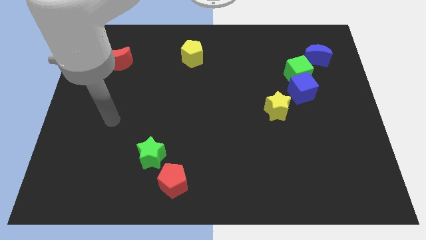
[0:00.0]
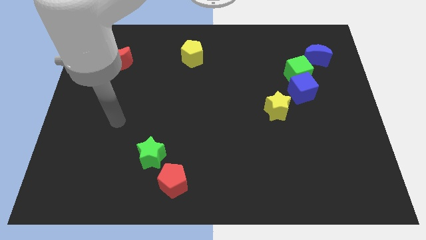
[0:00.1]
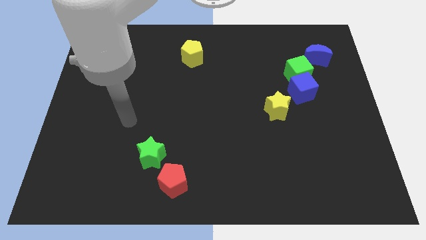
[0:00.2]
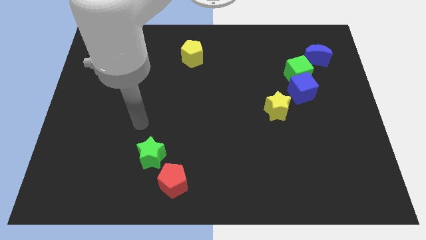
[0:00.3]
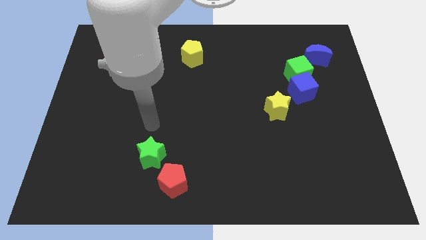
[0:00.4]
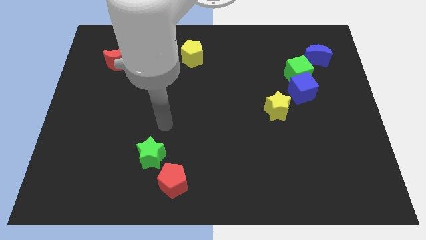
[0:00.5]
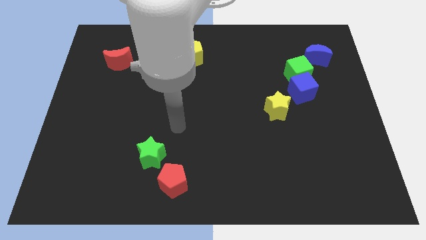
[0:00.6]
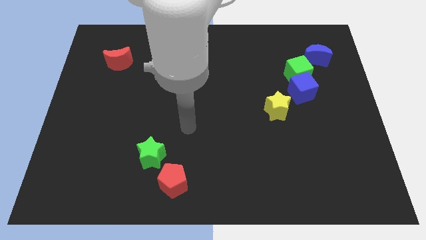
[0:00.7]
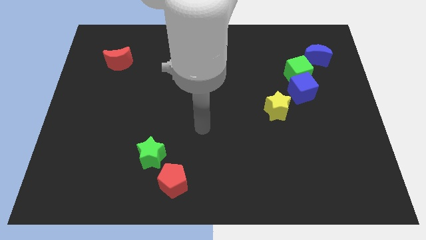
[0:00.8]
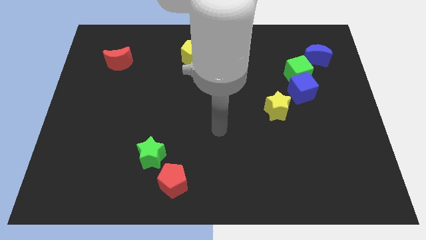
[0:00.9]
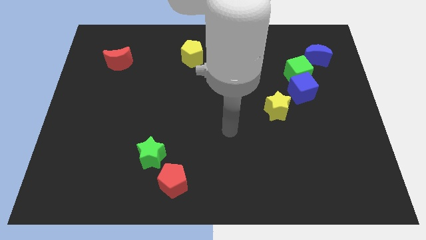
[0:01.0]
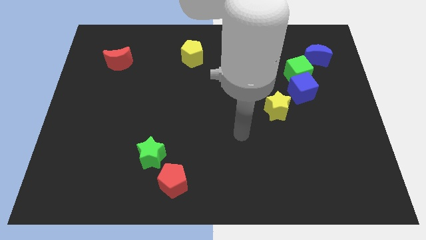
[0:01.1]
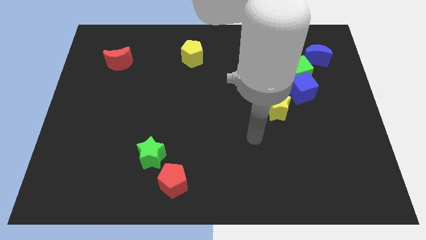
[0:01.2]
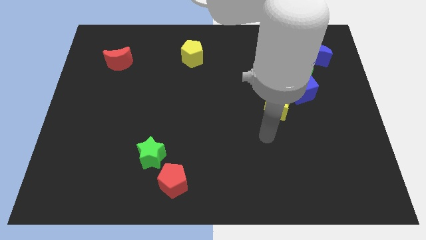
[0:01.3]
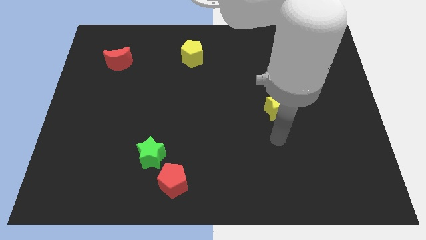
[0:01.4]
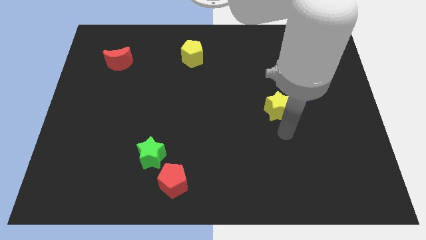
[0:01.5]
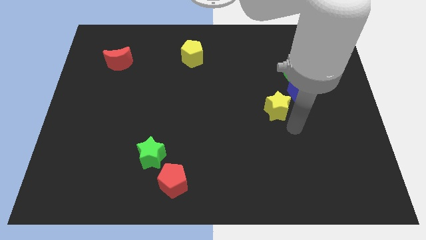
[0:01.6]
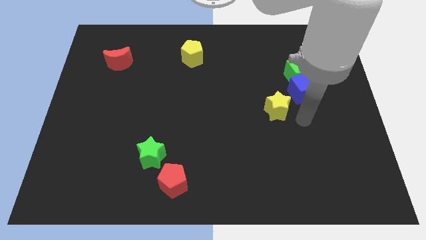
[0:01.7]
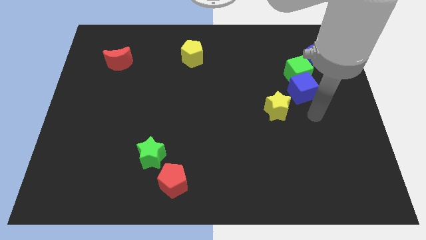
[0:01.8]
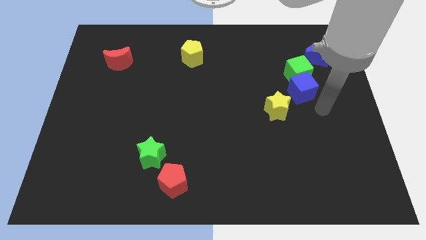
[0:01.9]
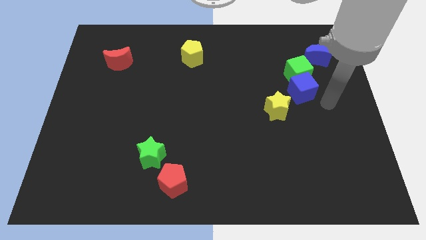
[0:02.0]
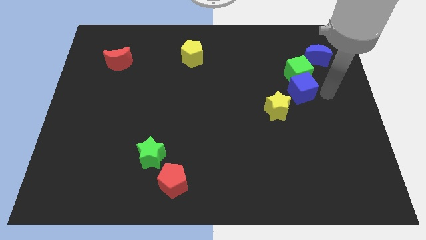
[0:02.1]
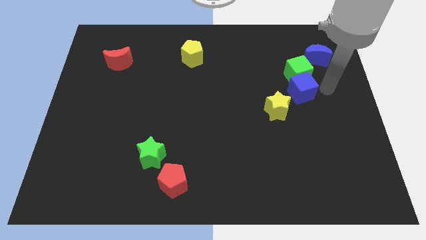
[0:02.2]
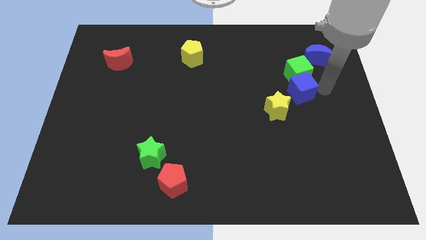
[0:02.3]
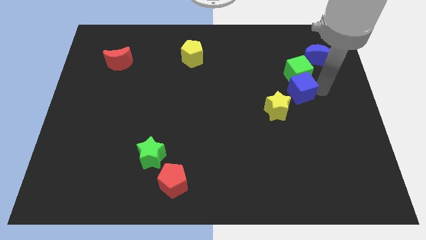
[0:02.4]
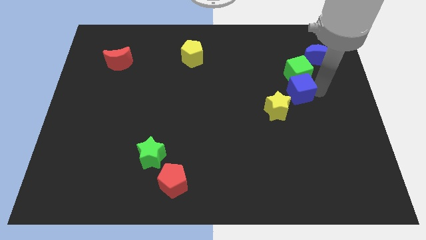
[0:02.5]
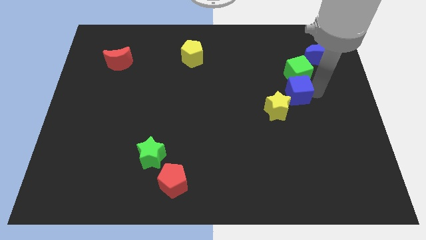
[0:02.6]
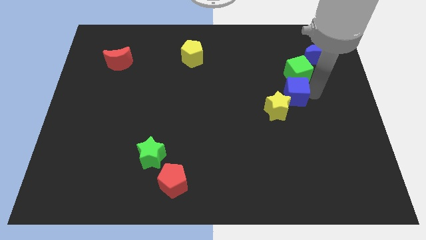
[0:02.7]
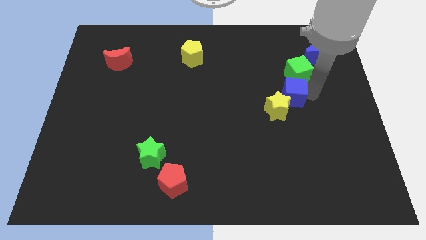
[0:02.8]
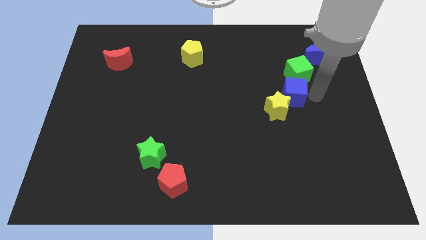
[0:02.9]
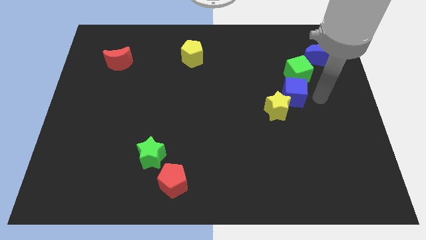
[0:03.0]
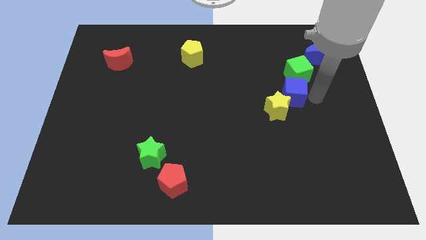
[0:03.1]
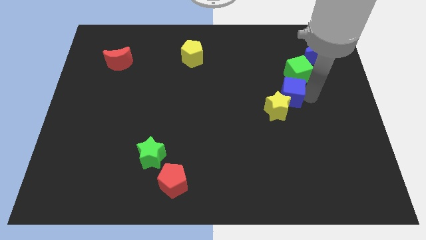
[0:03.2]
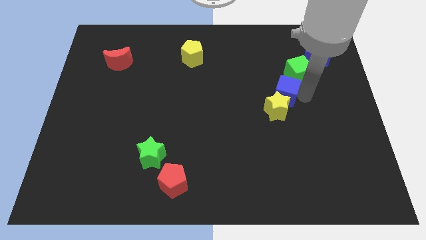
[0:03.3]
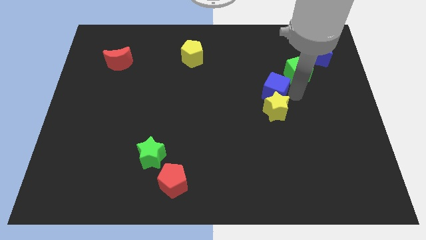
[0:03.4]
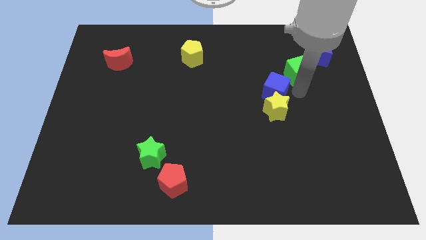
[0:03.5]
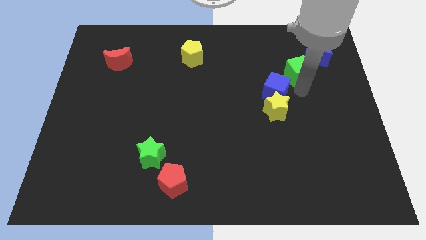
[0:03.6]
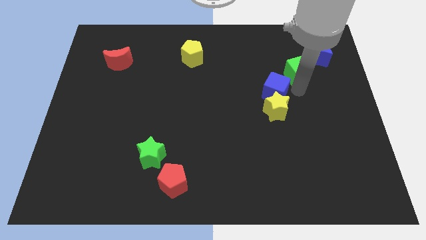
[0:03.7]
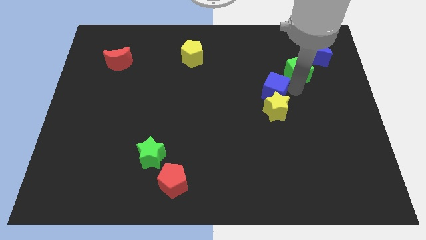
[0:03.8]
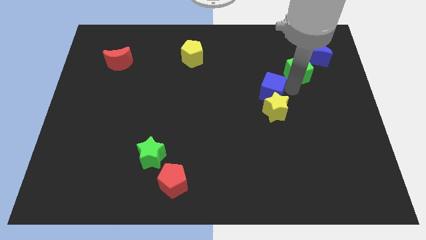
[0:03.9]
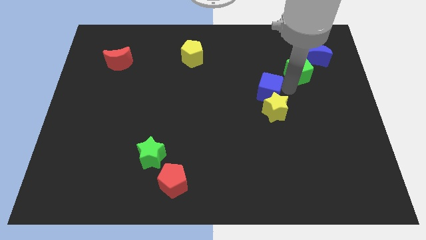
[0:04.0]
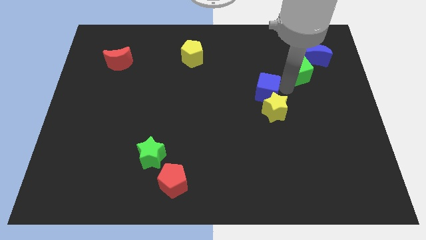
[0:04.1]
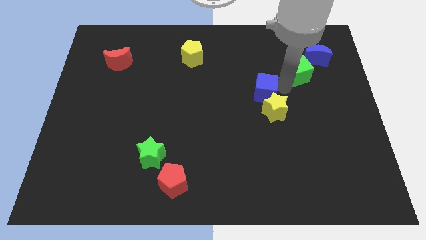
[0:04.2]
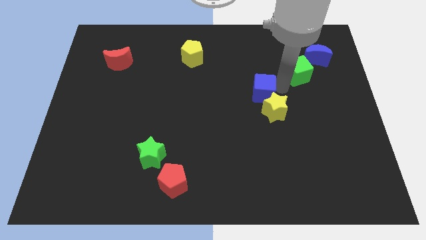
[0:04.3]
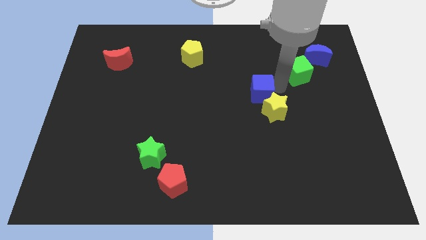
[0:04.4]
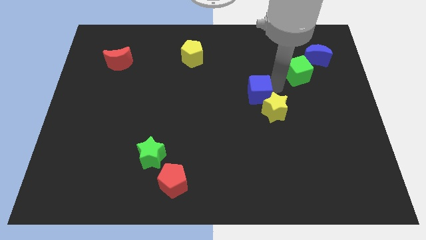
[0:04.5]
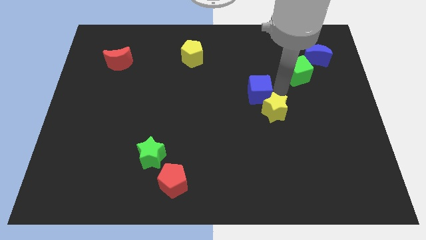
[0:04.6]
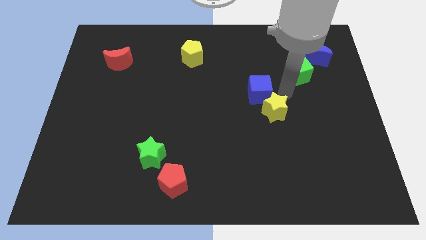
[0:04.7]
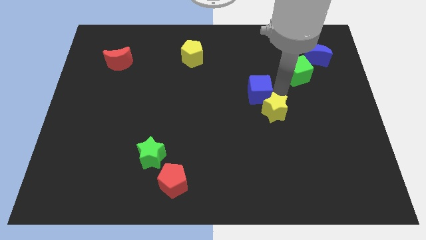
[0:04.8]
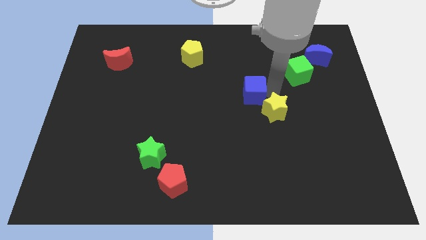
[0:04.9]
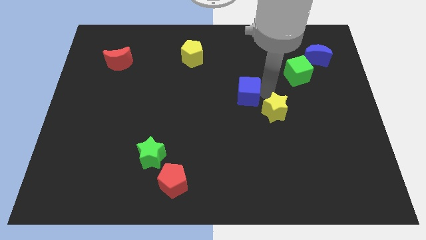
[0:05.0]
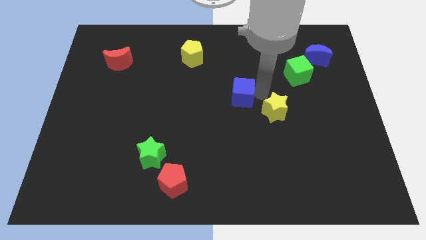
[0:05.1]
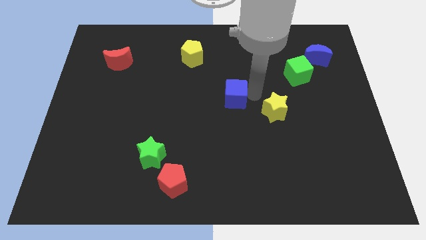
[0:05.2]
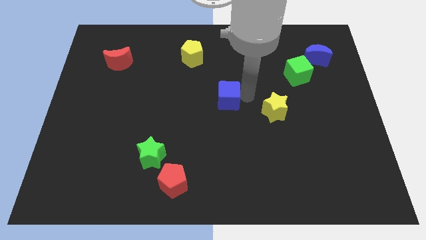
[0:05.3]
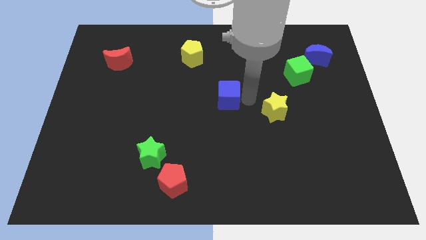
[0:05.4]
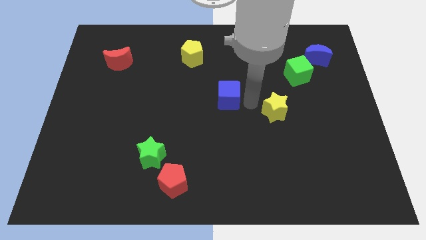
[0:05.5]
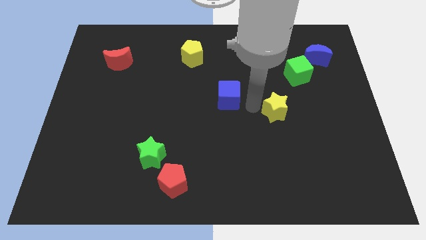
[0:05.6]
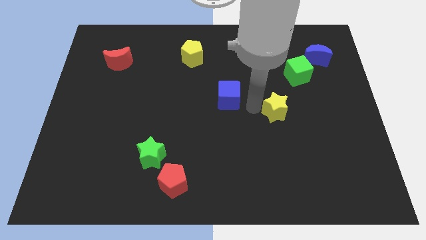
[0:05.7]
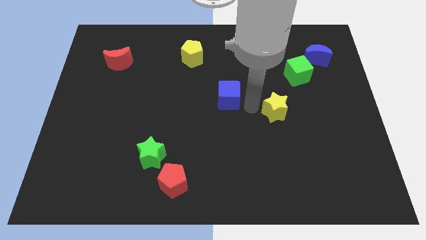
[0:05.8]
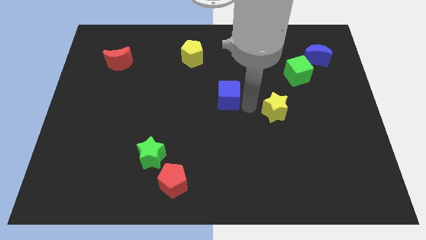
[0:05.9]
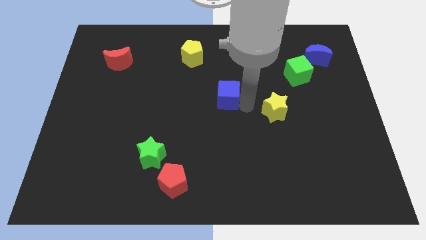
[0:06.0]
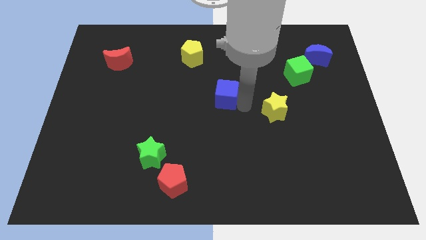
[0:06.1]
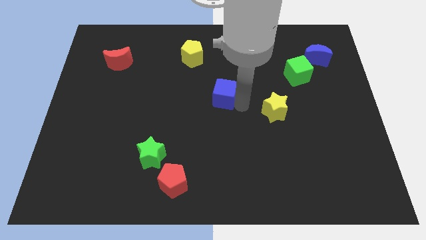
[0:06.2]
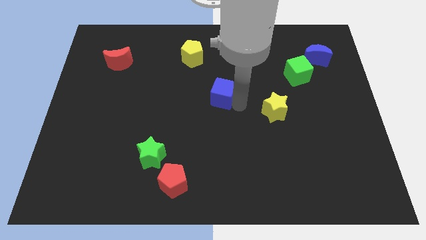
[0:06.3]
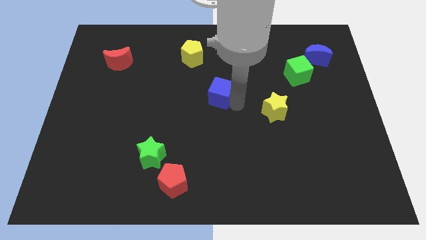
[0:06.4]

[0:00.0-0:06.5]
slide the blue cube to the left

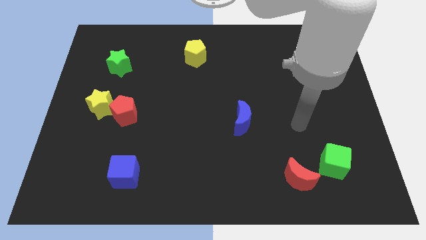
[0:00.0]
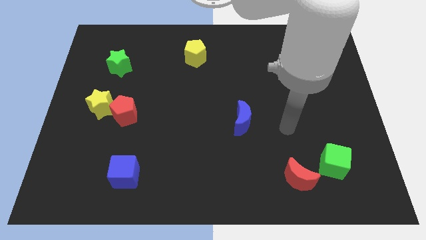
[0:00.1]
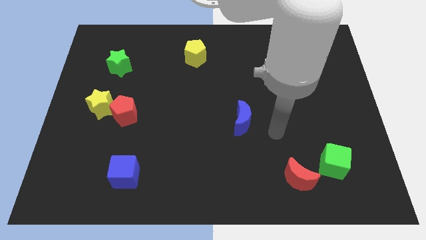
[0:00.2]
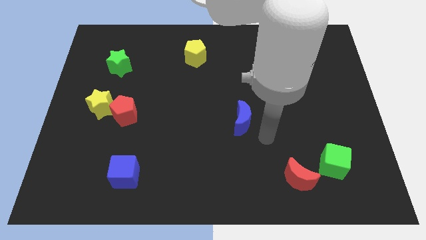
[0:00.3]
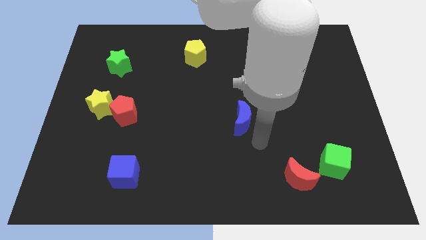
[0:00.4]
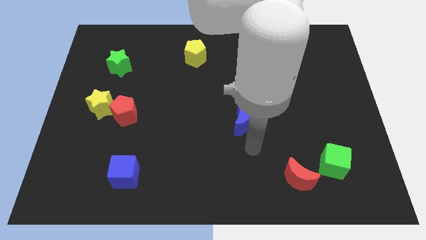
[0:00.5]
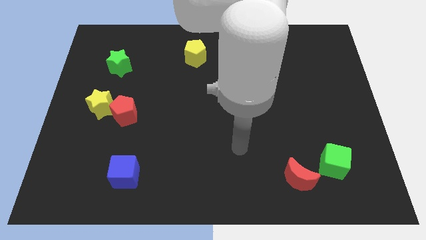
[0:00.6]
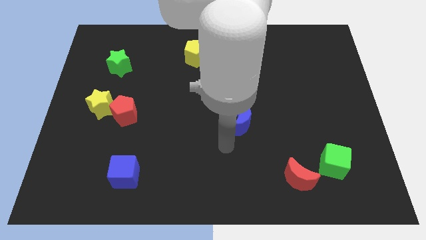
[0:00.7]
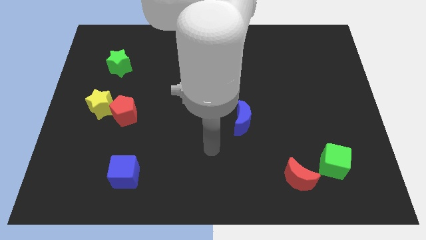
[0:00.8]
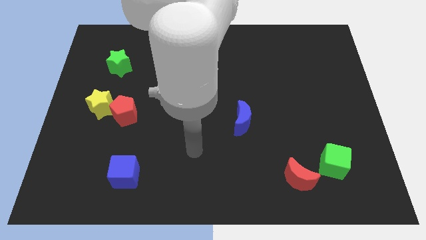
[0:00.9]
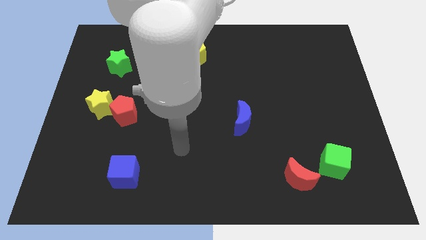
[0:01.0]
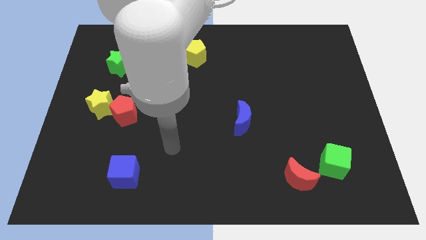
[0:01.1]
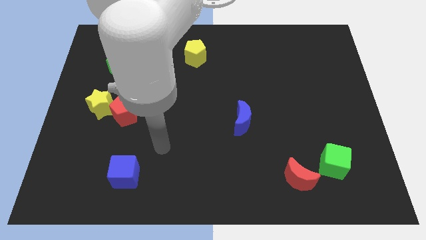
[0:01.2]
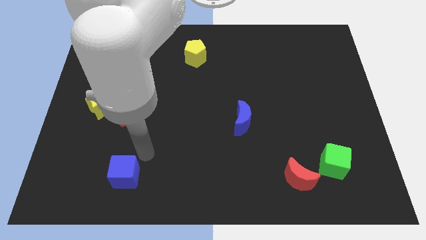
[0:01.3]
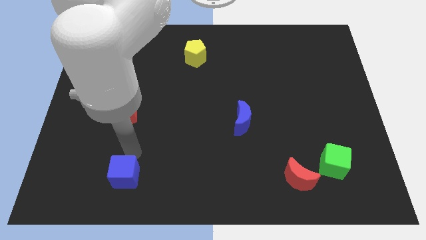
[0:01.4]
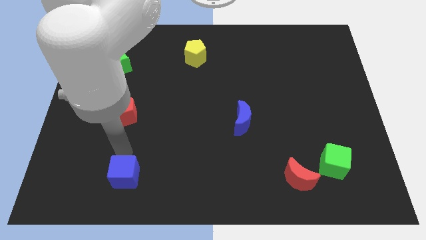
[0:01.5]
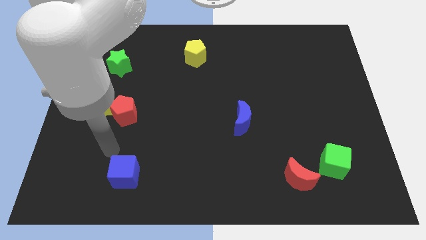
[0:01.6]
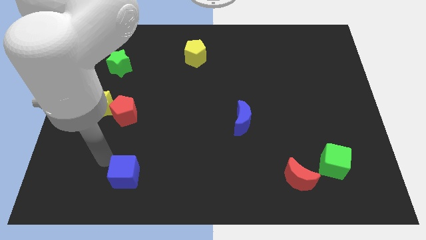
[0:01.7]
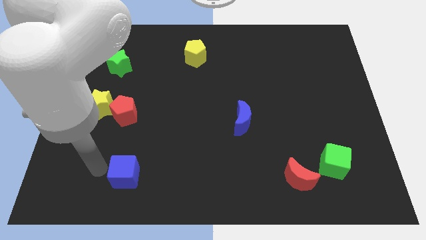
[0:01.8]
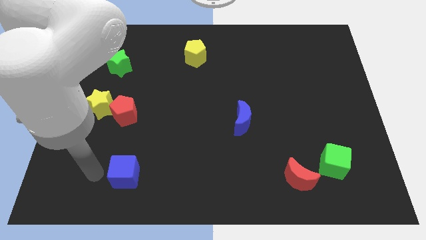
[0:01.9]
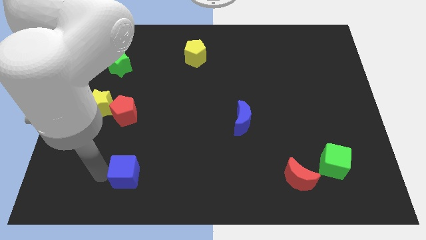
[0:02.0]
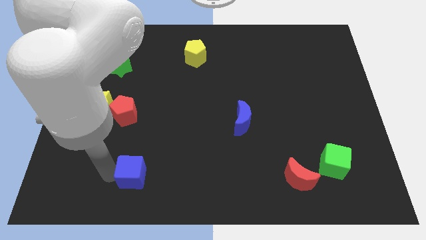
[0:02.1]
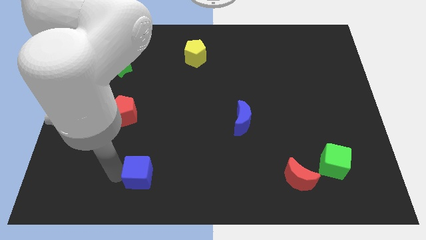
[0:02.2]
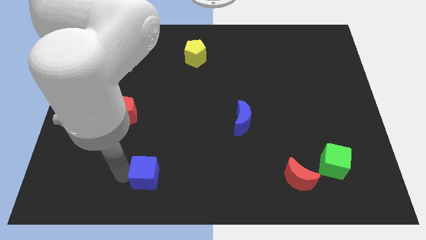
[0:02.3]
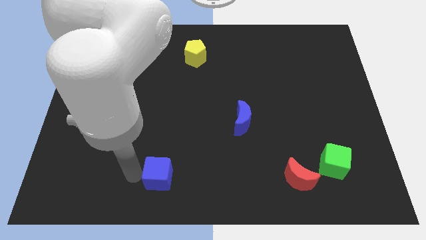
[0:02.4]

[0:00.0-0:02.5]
slide the blue cube right a little bit
